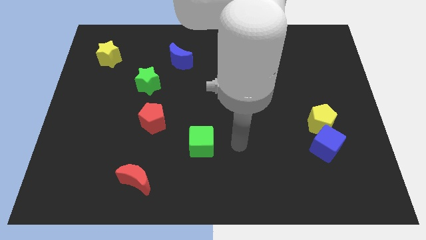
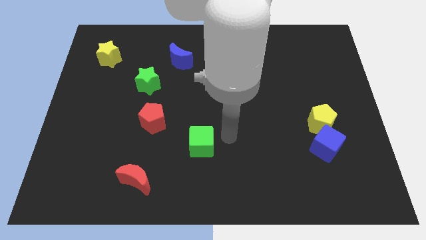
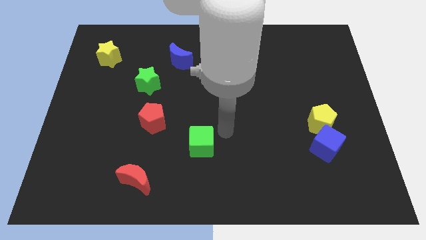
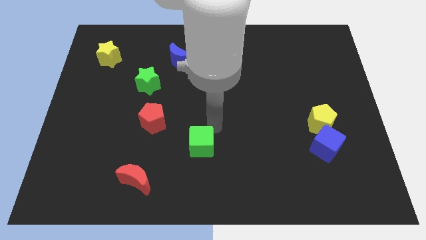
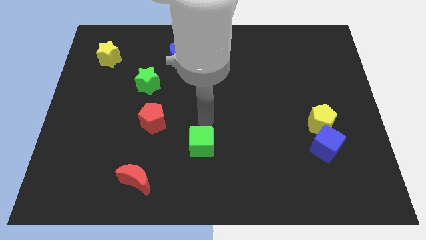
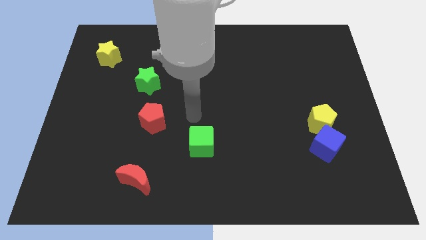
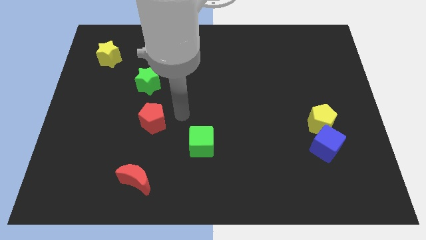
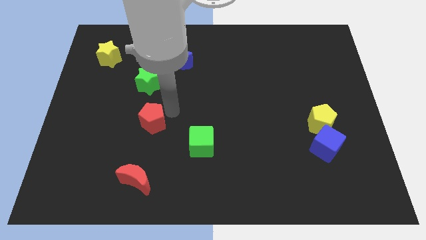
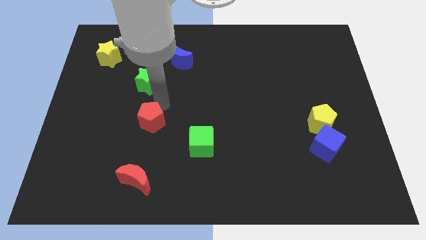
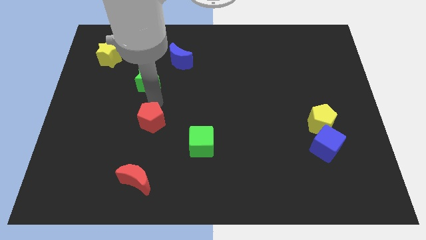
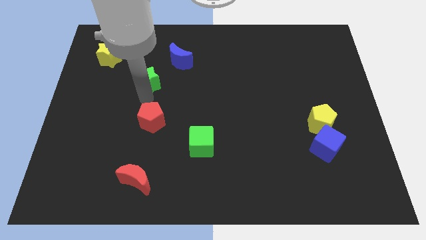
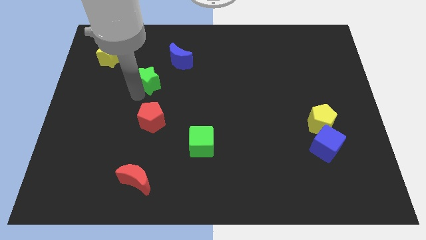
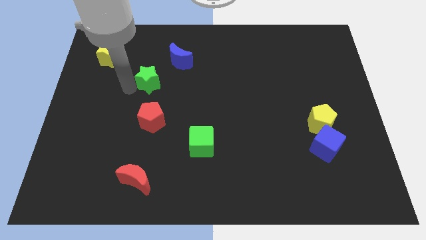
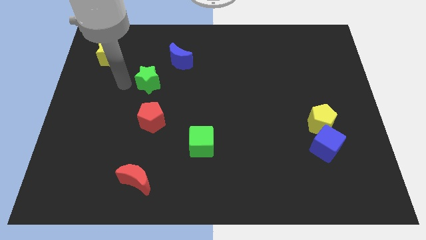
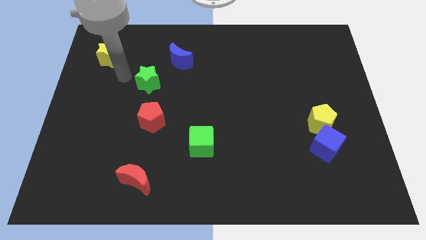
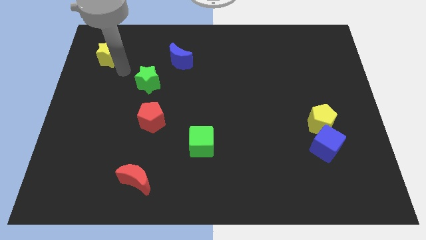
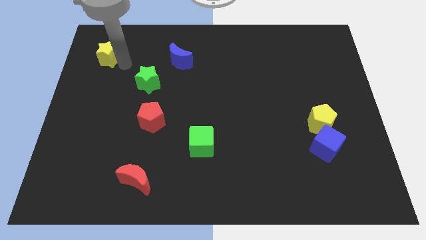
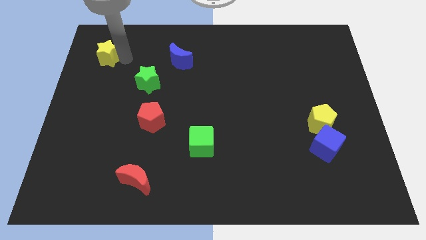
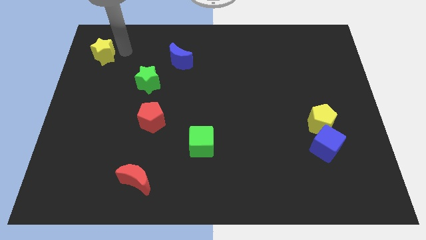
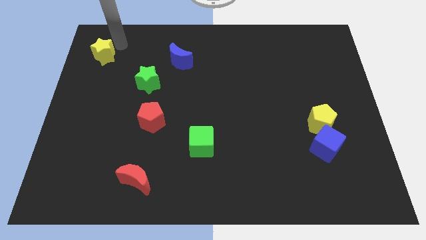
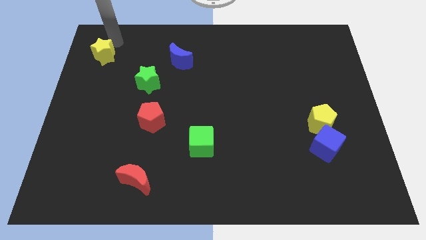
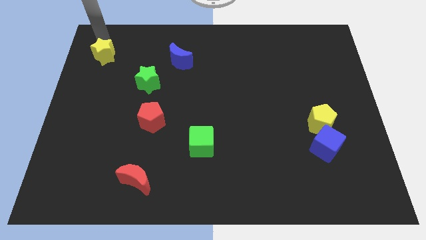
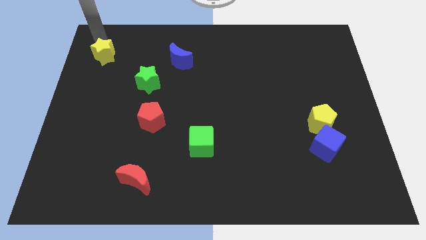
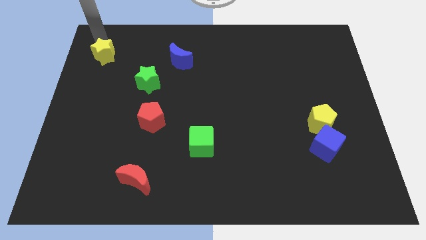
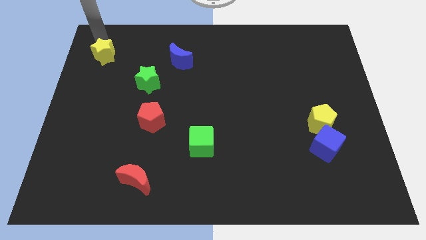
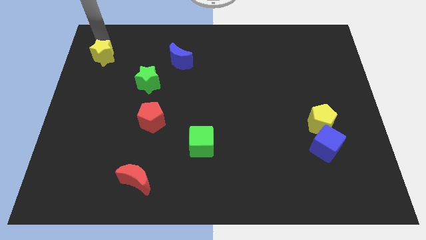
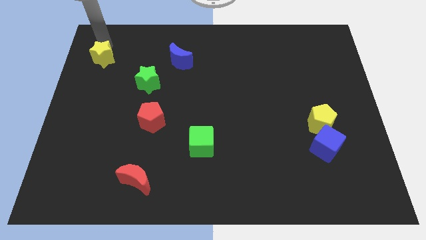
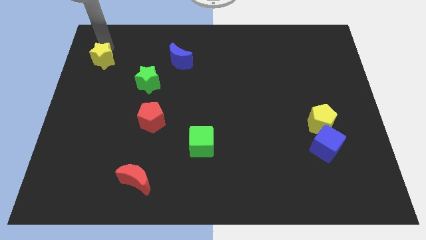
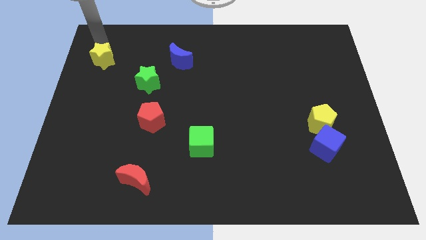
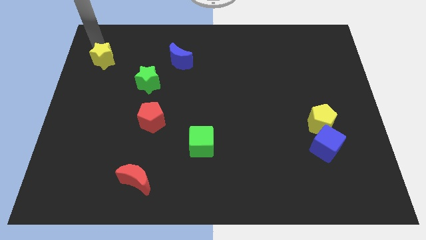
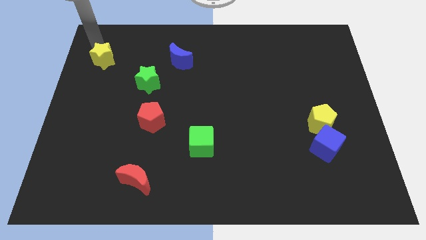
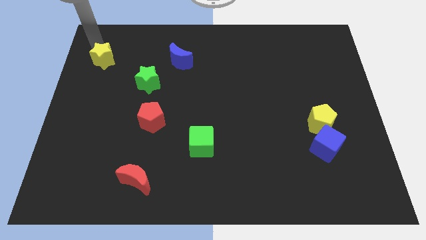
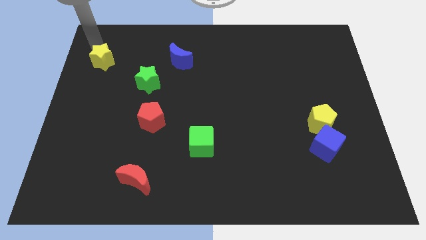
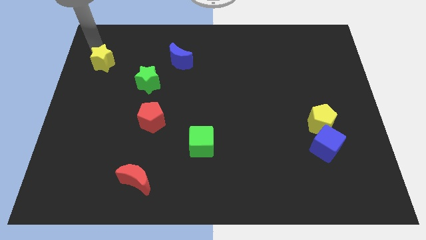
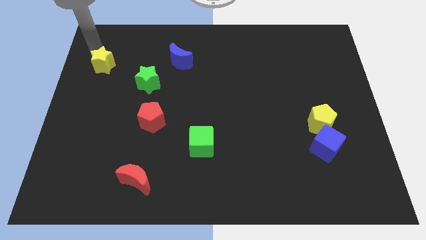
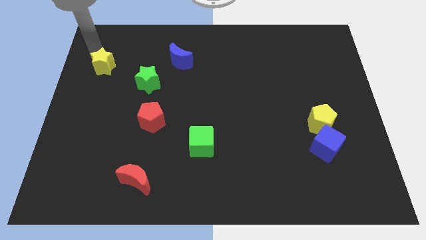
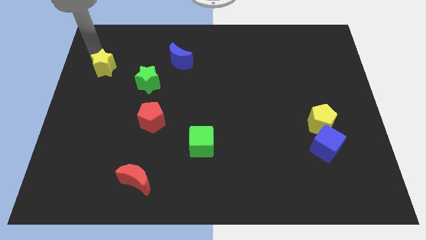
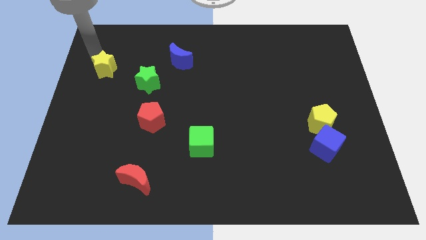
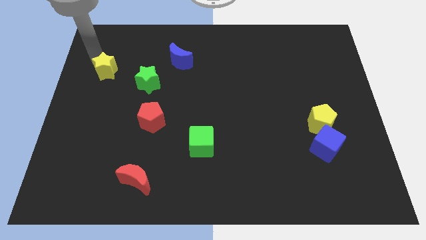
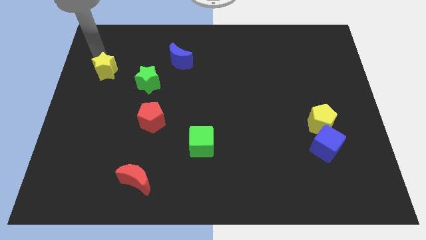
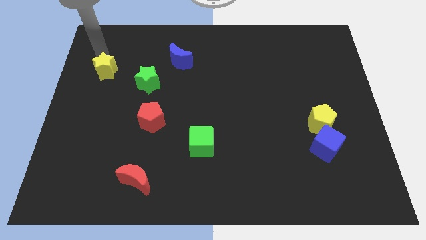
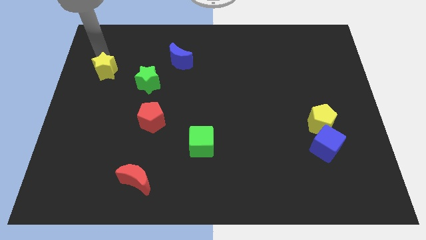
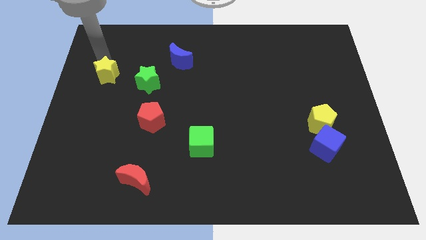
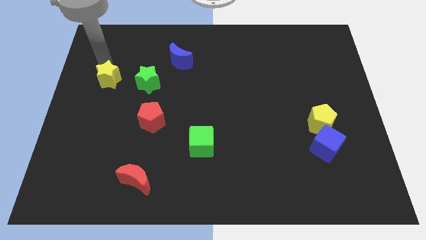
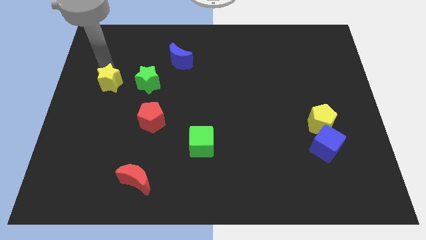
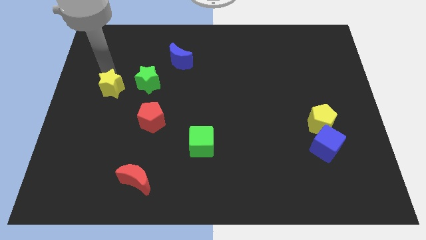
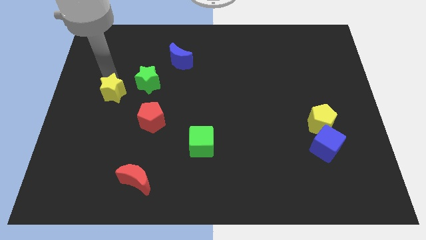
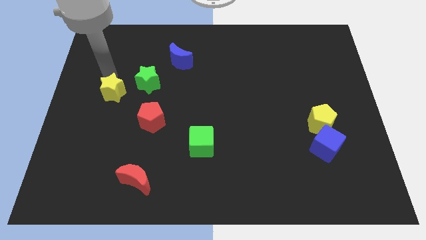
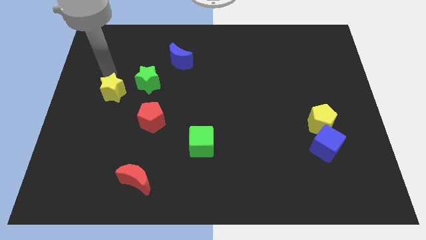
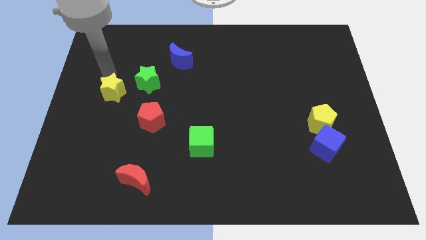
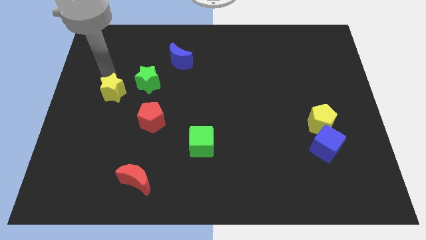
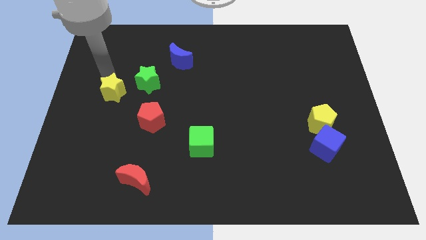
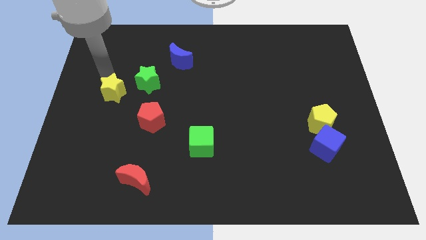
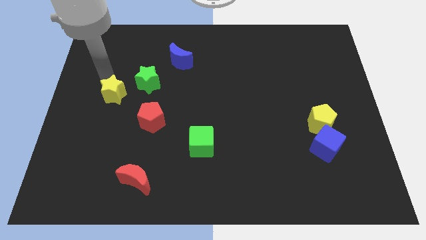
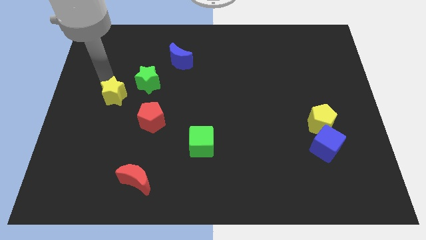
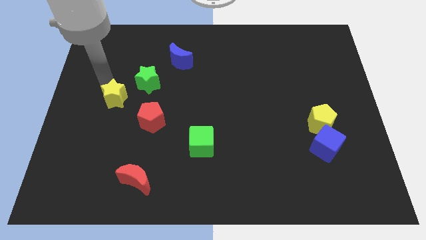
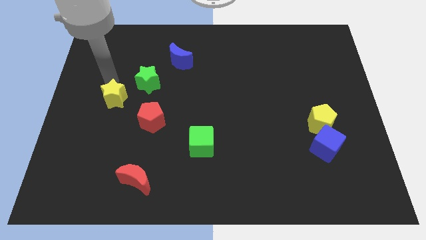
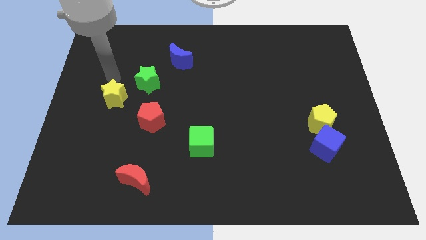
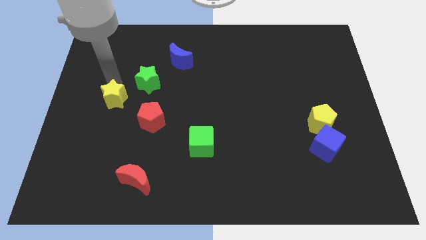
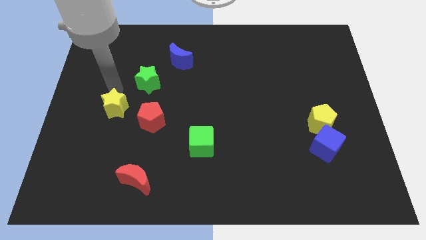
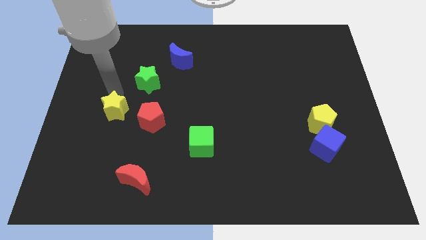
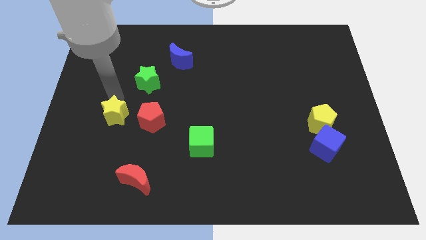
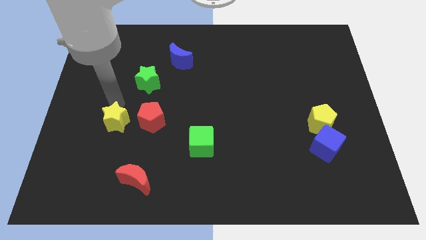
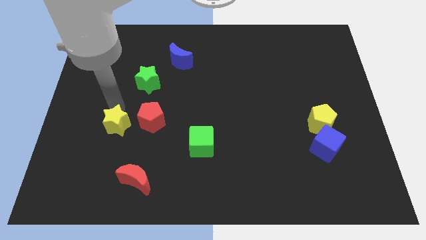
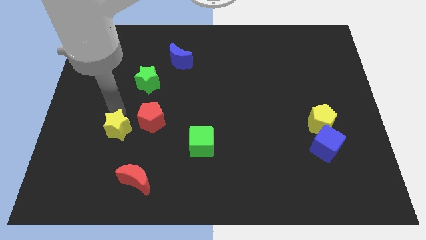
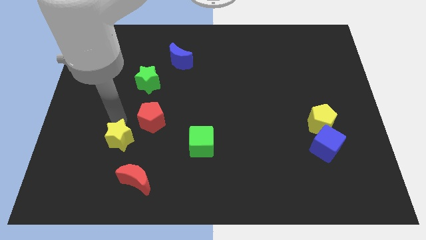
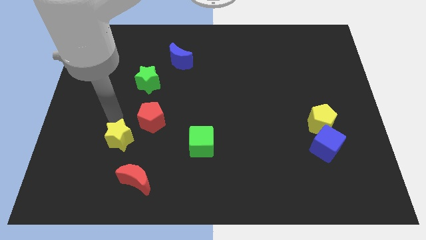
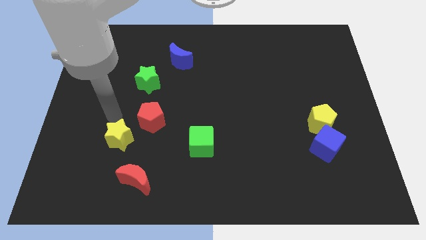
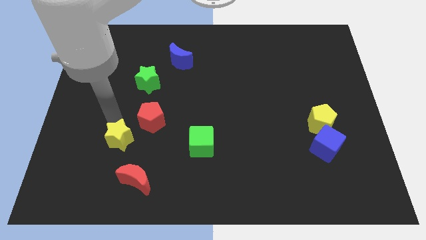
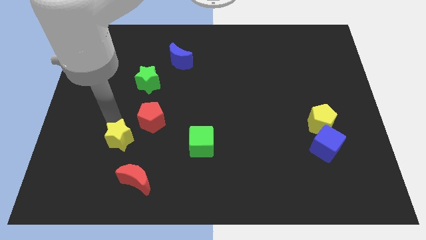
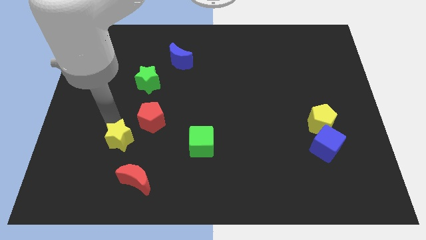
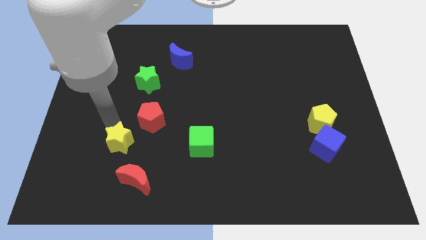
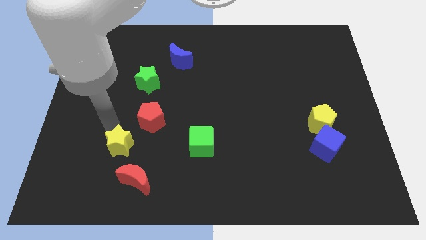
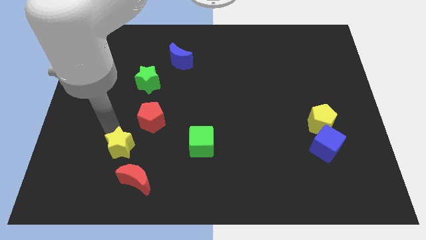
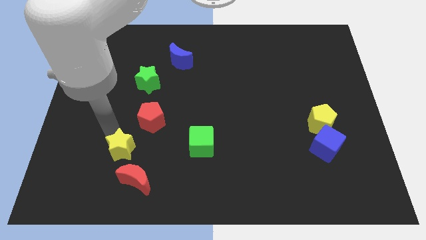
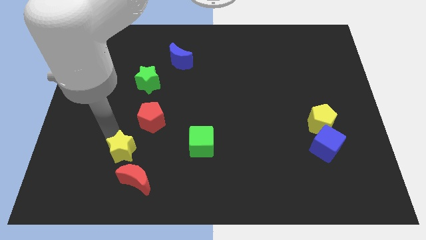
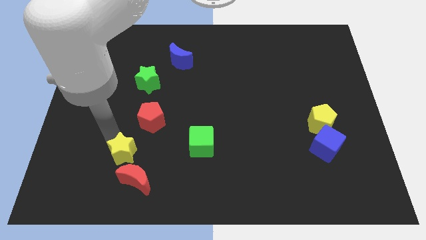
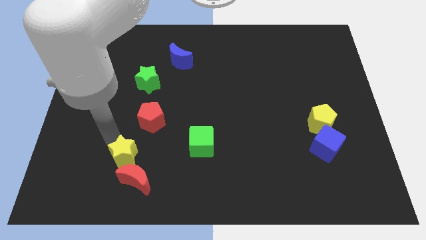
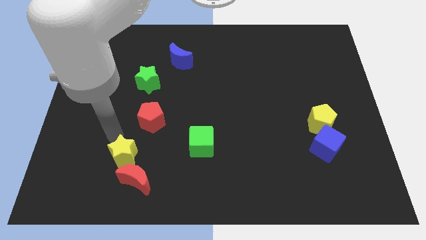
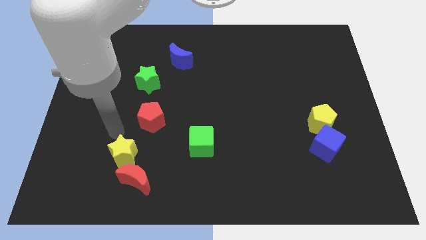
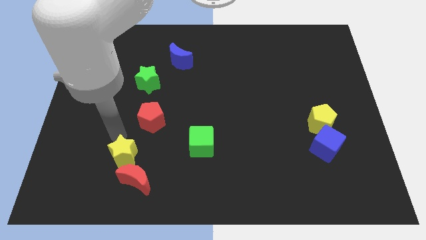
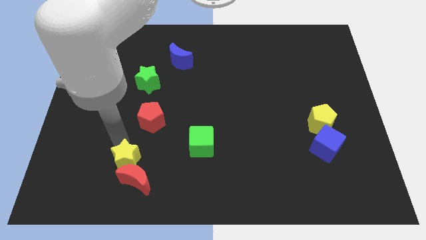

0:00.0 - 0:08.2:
push the yellow star next to the red moon
